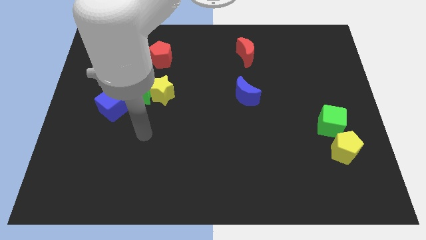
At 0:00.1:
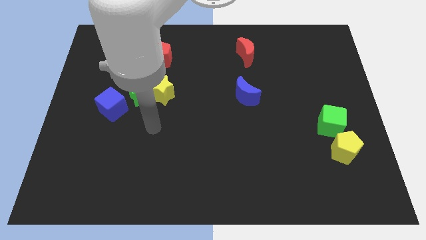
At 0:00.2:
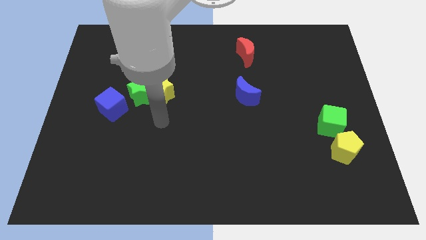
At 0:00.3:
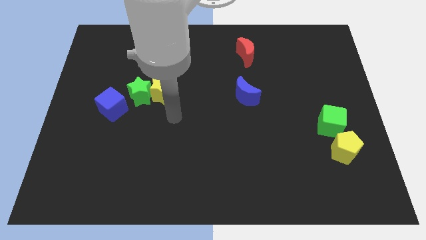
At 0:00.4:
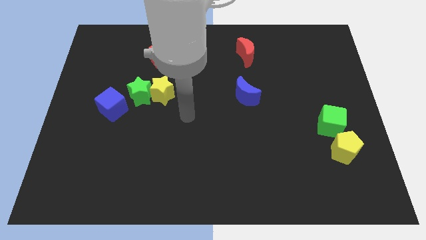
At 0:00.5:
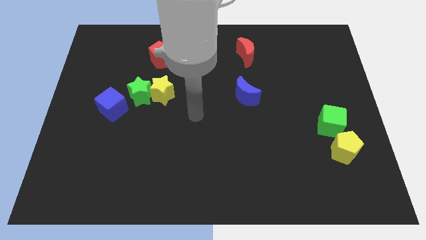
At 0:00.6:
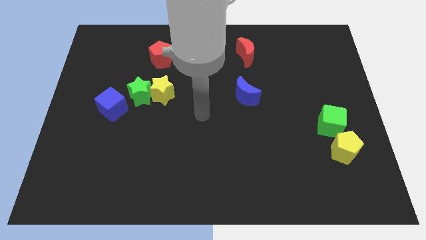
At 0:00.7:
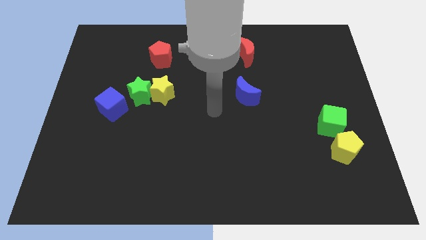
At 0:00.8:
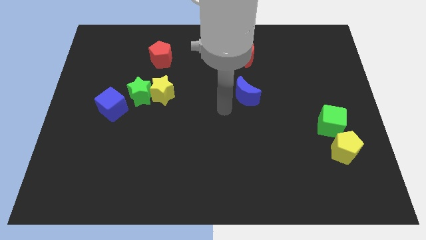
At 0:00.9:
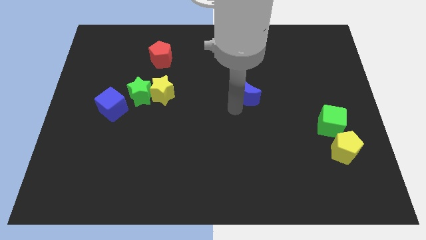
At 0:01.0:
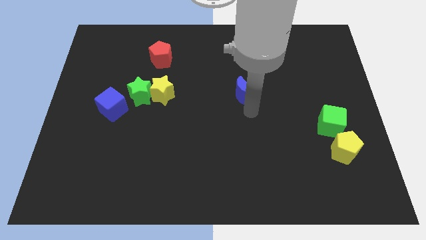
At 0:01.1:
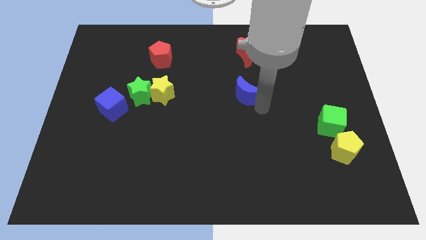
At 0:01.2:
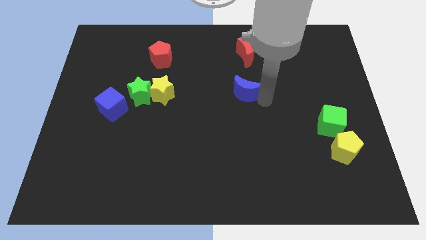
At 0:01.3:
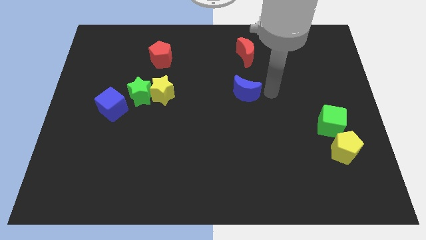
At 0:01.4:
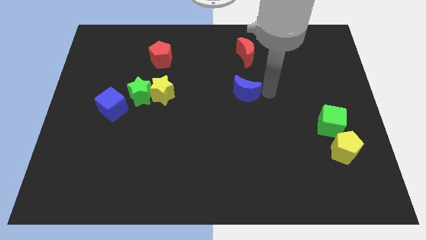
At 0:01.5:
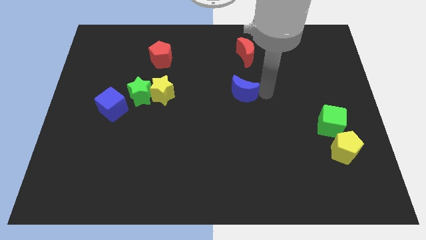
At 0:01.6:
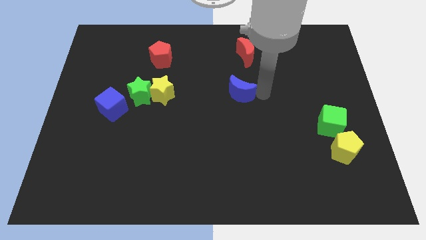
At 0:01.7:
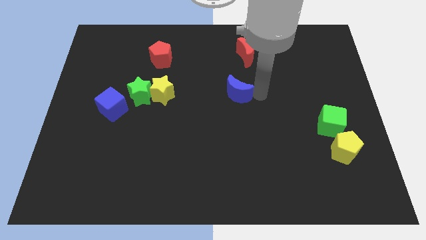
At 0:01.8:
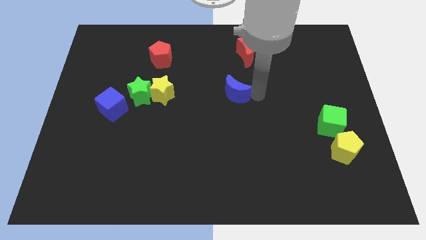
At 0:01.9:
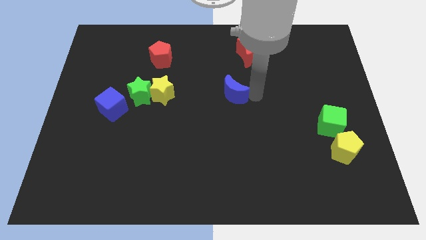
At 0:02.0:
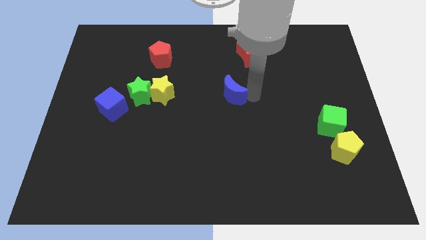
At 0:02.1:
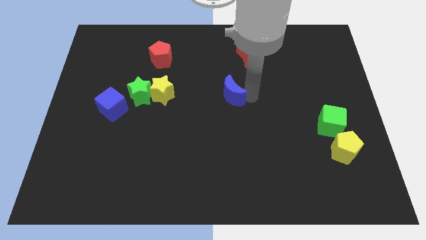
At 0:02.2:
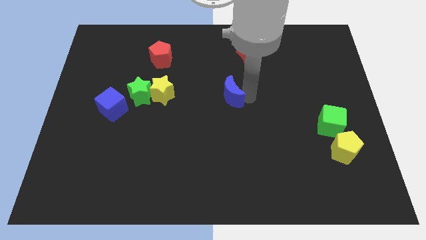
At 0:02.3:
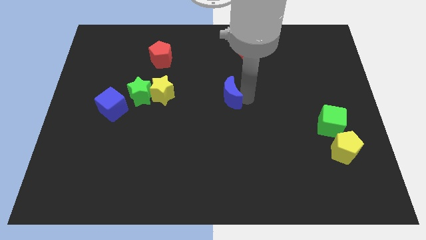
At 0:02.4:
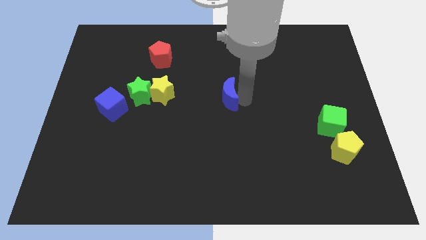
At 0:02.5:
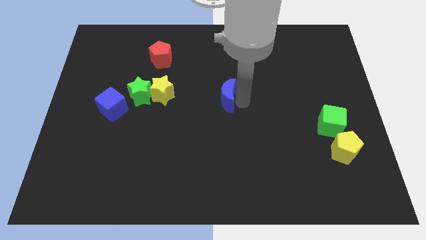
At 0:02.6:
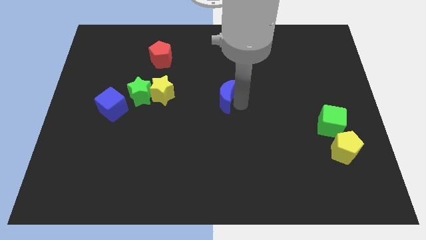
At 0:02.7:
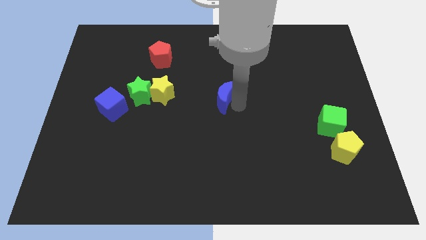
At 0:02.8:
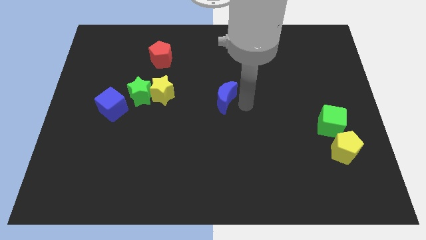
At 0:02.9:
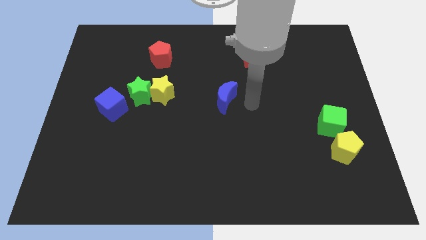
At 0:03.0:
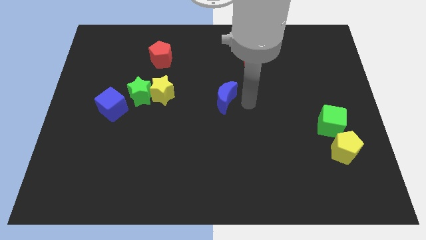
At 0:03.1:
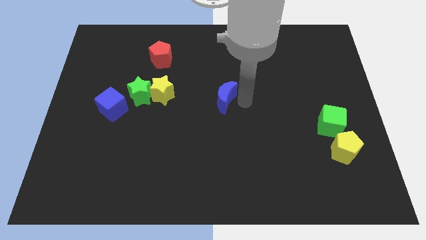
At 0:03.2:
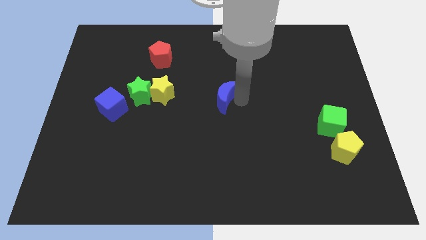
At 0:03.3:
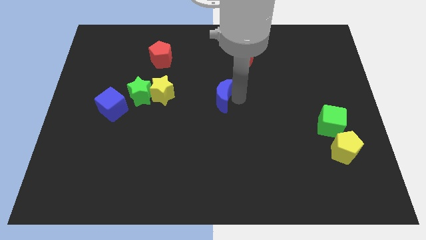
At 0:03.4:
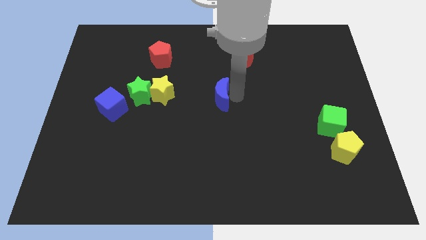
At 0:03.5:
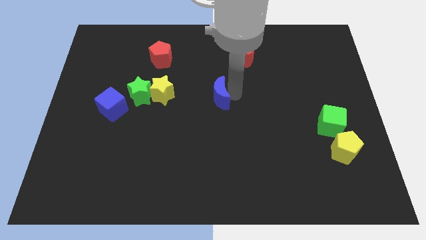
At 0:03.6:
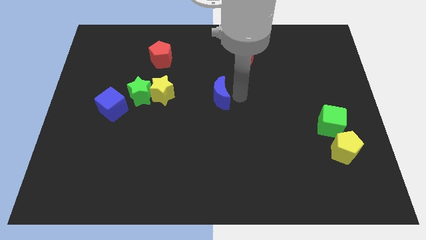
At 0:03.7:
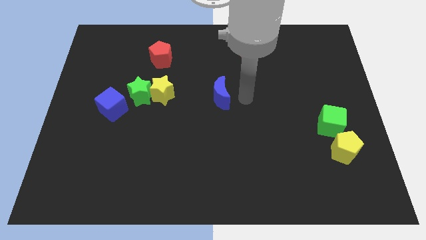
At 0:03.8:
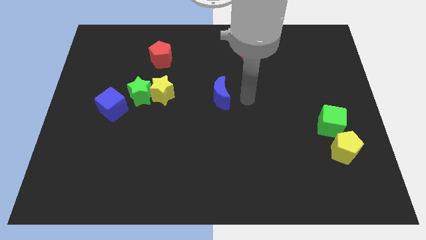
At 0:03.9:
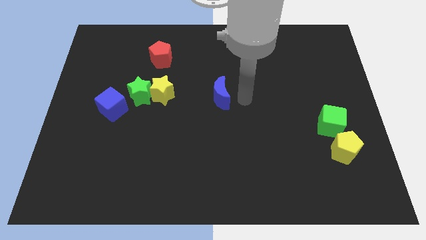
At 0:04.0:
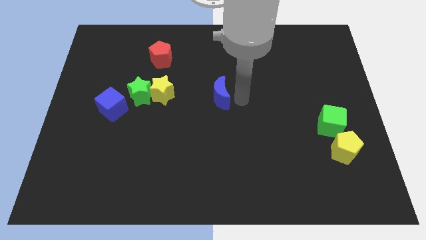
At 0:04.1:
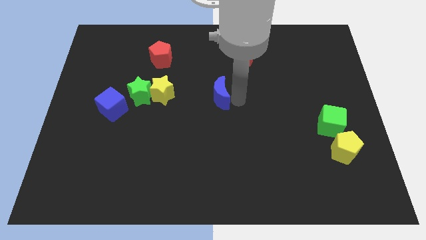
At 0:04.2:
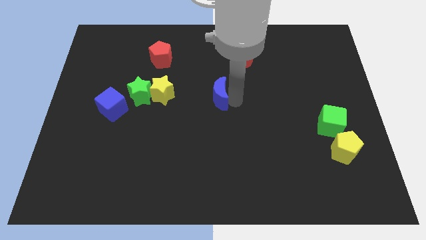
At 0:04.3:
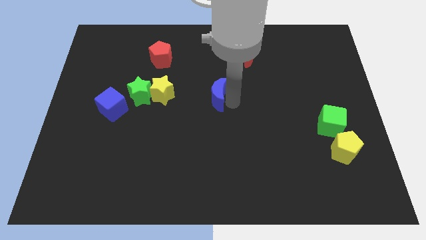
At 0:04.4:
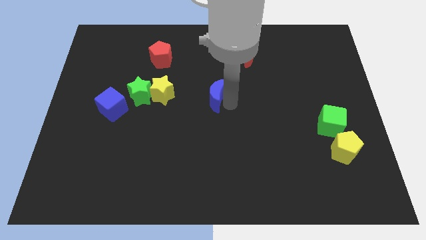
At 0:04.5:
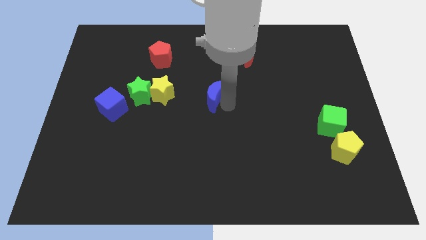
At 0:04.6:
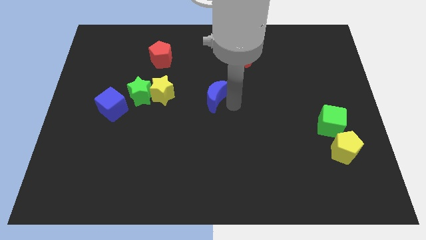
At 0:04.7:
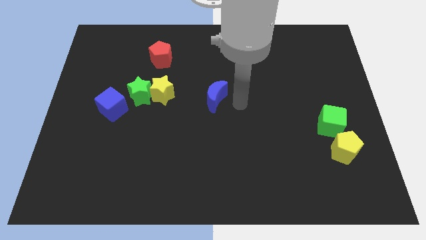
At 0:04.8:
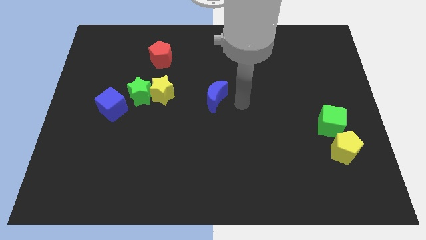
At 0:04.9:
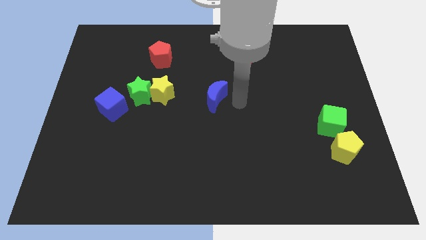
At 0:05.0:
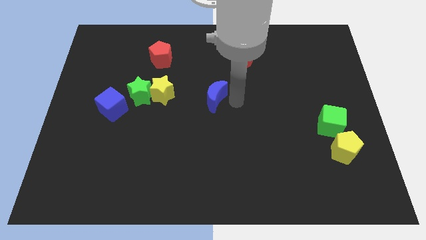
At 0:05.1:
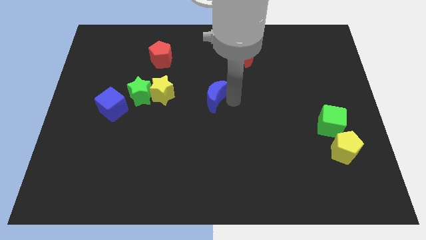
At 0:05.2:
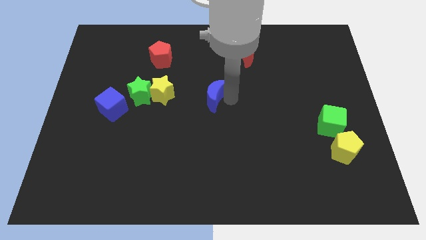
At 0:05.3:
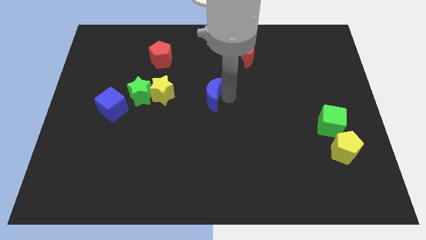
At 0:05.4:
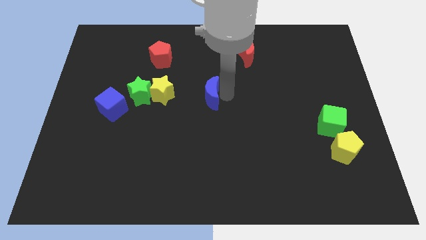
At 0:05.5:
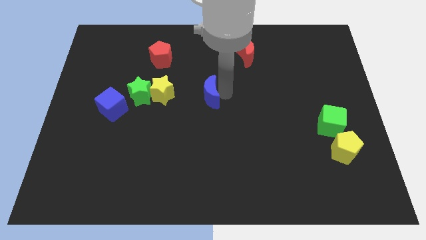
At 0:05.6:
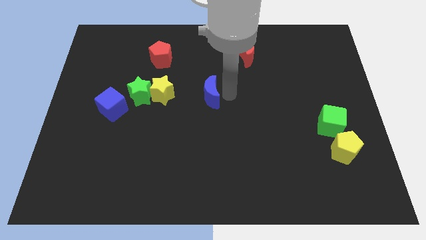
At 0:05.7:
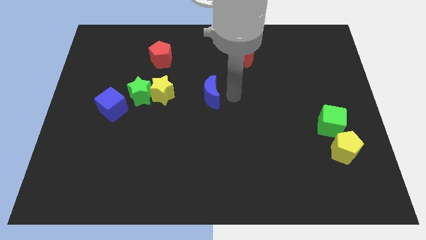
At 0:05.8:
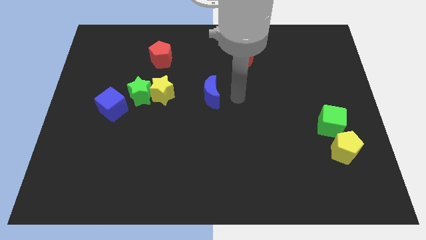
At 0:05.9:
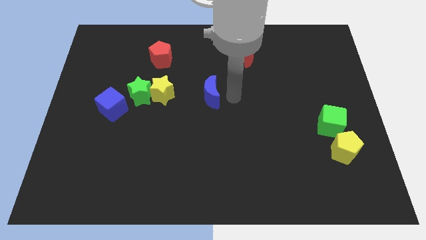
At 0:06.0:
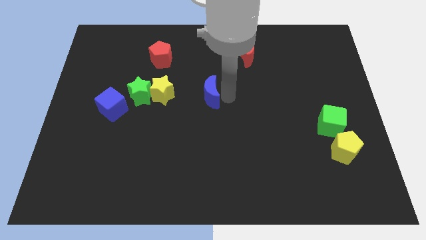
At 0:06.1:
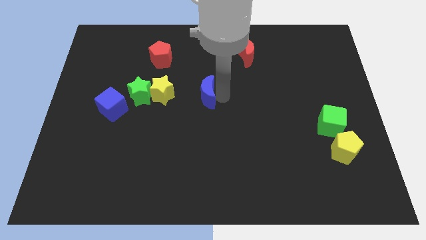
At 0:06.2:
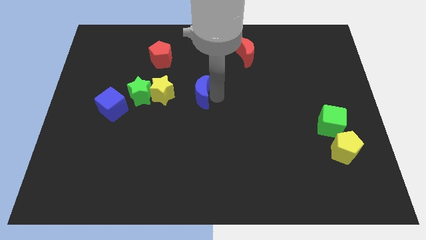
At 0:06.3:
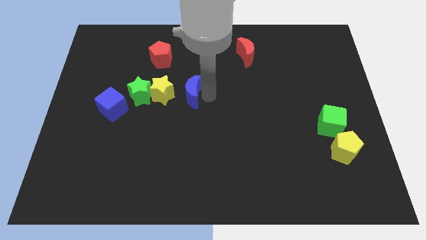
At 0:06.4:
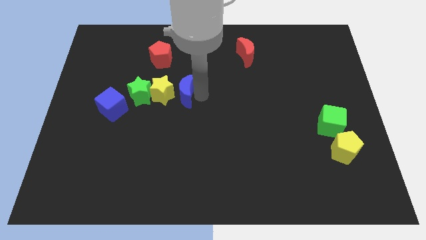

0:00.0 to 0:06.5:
move the blue moon next to the yellow star

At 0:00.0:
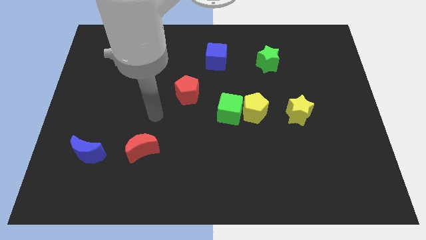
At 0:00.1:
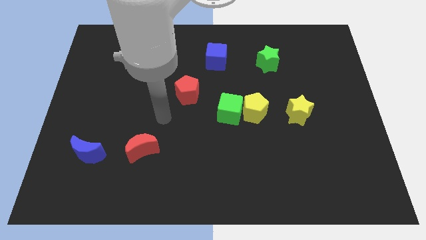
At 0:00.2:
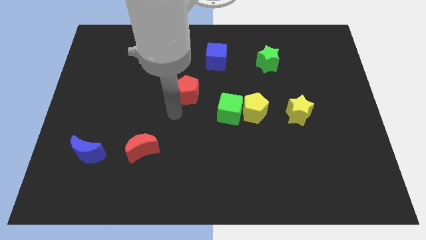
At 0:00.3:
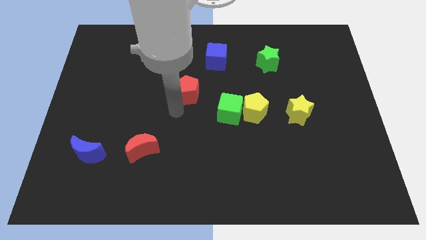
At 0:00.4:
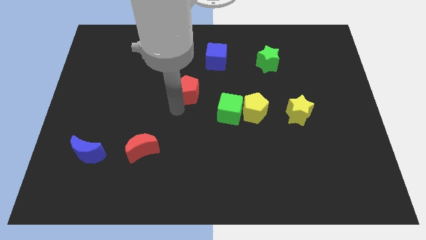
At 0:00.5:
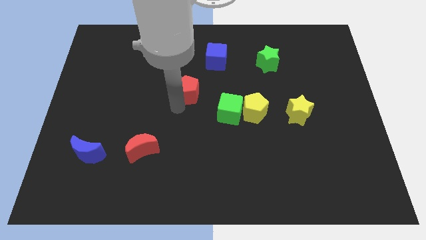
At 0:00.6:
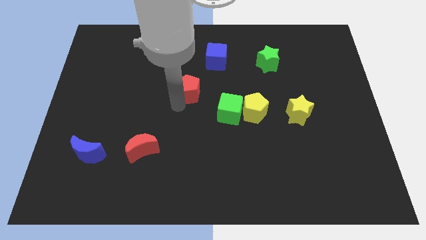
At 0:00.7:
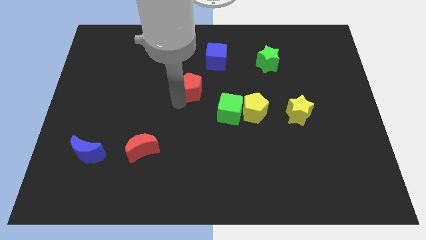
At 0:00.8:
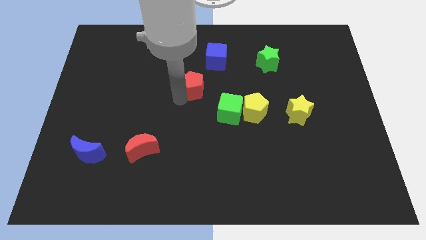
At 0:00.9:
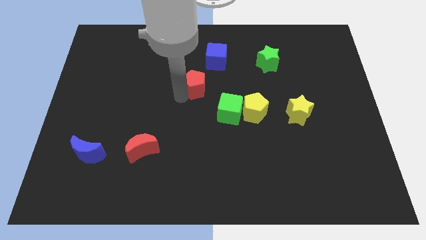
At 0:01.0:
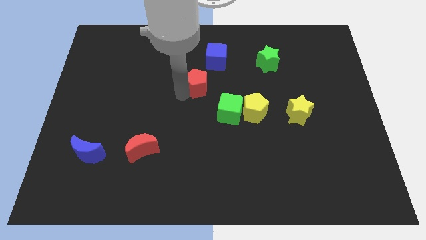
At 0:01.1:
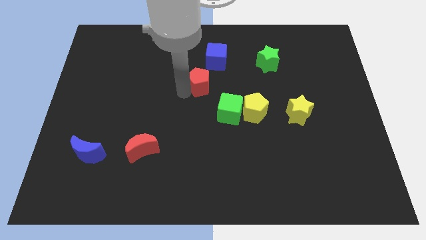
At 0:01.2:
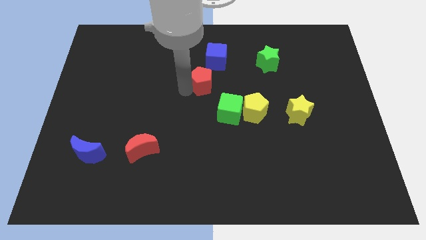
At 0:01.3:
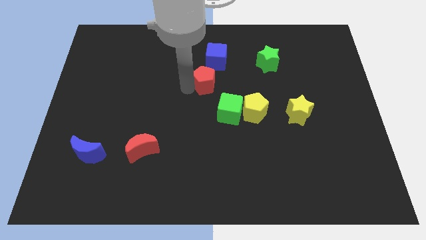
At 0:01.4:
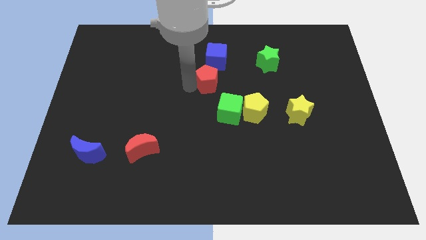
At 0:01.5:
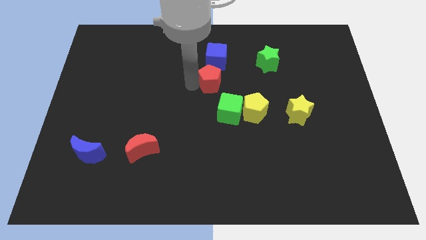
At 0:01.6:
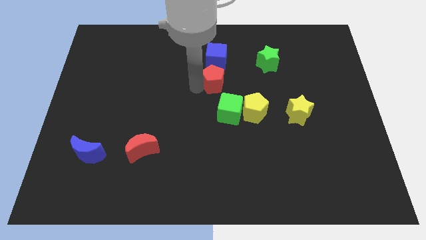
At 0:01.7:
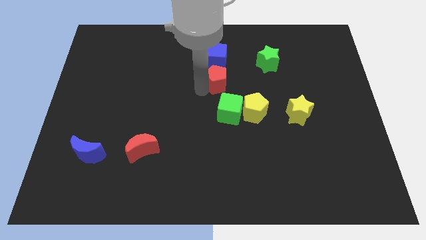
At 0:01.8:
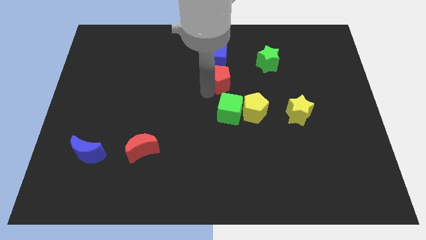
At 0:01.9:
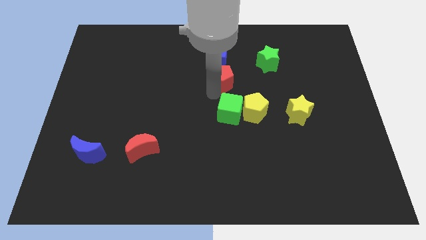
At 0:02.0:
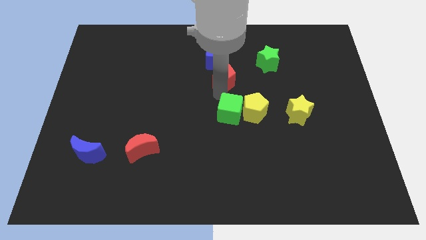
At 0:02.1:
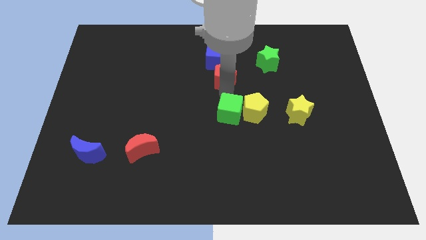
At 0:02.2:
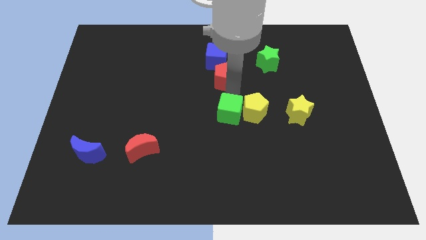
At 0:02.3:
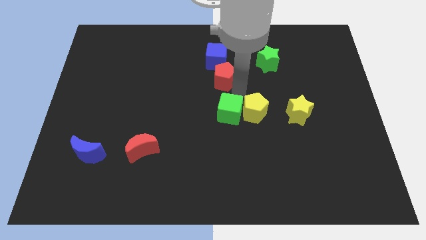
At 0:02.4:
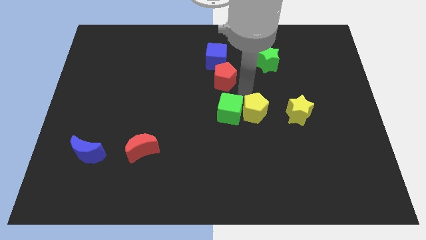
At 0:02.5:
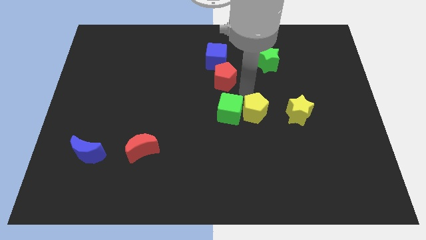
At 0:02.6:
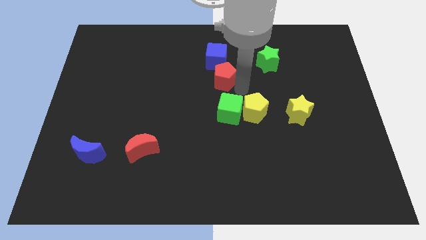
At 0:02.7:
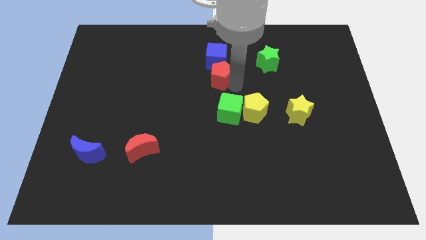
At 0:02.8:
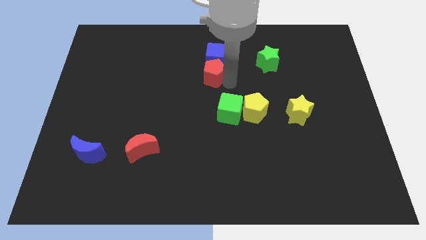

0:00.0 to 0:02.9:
put the red pentagon to the blue cube
